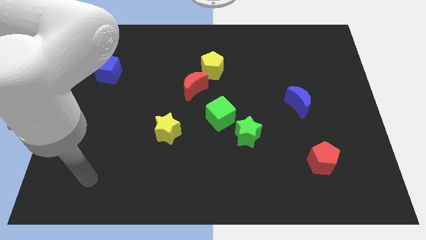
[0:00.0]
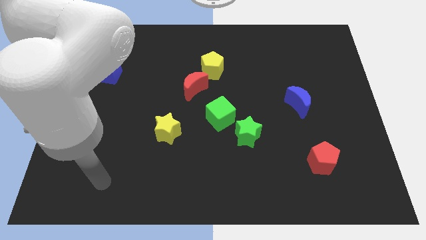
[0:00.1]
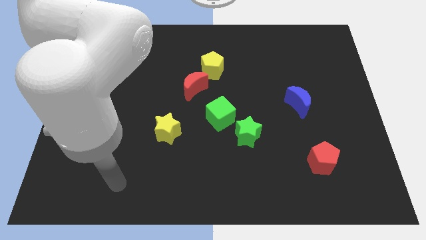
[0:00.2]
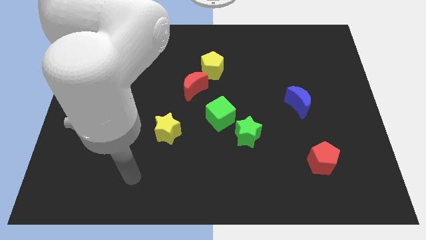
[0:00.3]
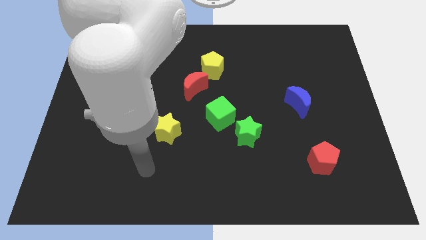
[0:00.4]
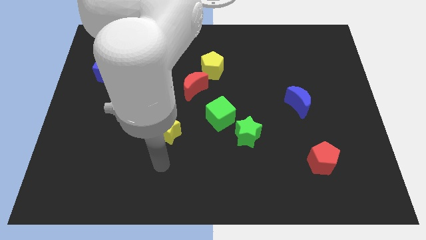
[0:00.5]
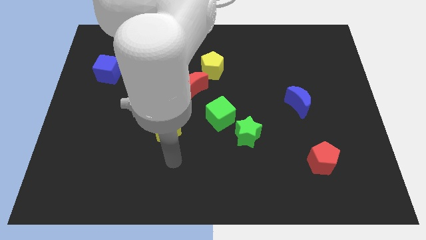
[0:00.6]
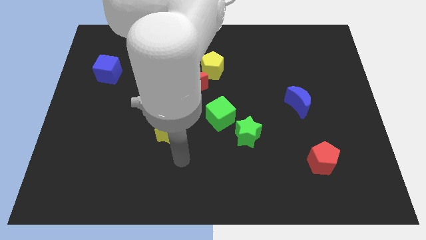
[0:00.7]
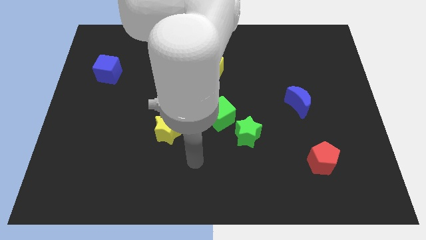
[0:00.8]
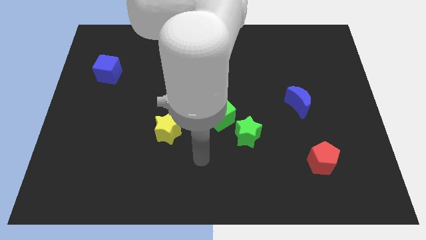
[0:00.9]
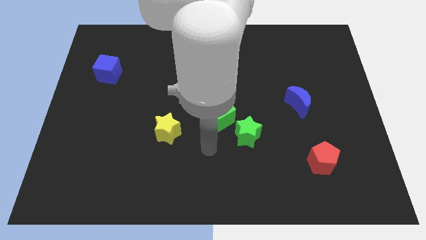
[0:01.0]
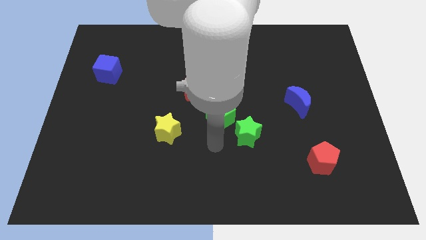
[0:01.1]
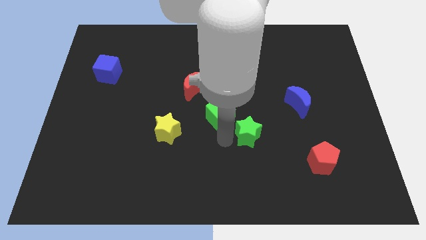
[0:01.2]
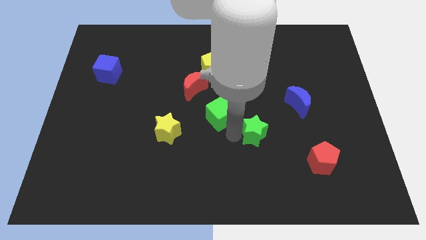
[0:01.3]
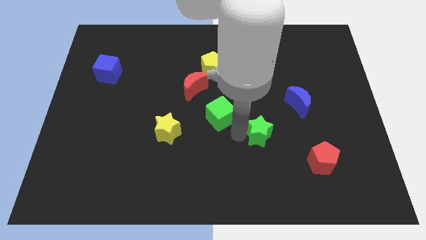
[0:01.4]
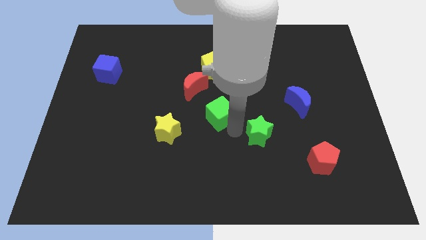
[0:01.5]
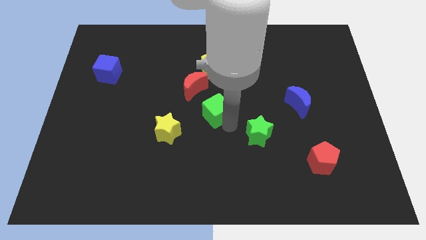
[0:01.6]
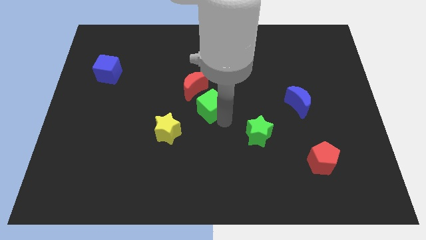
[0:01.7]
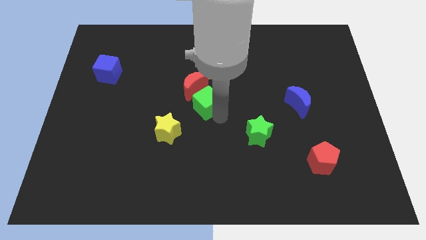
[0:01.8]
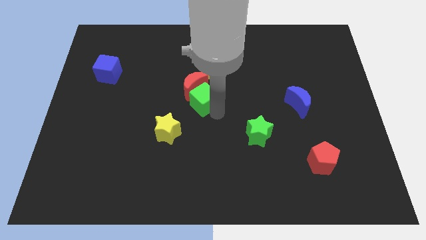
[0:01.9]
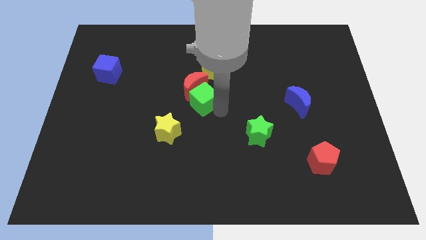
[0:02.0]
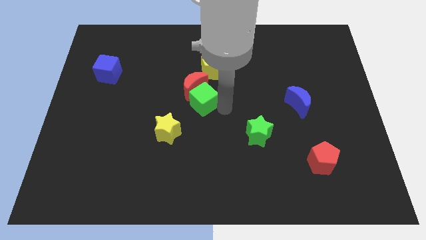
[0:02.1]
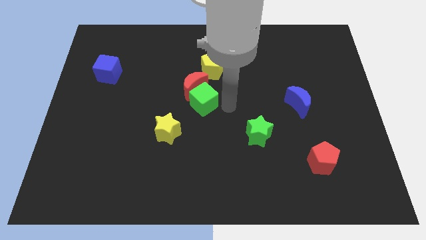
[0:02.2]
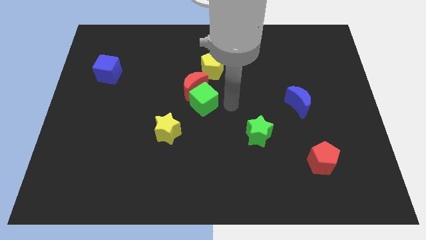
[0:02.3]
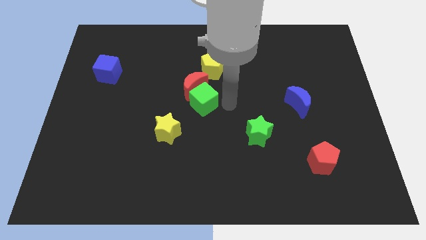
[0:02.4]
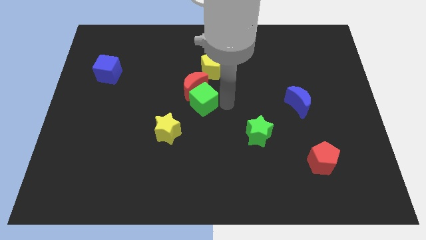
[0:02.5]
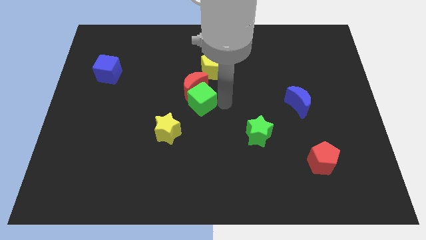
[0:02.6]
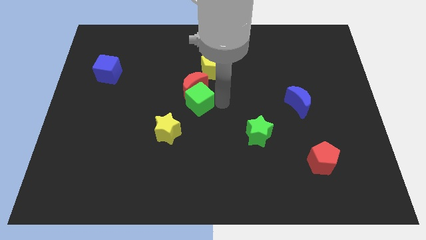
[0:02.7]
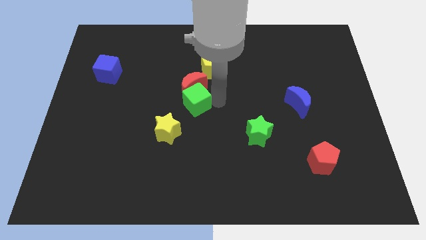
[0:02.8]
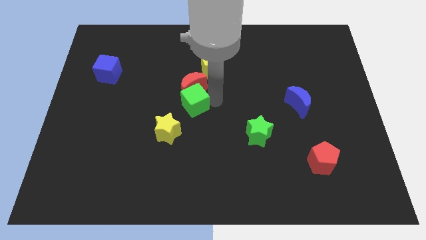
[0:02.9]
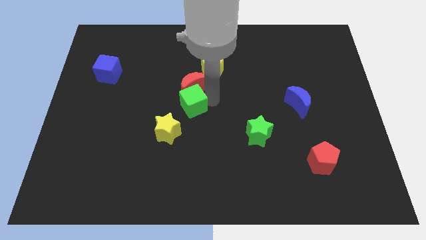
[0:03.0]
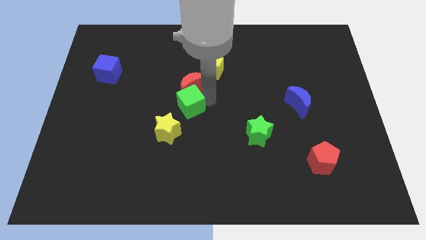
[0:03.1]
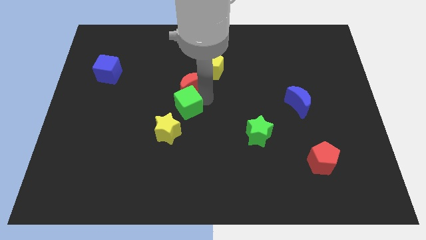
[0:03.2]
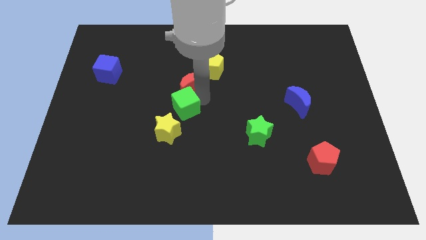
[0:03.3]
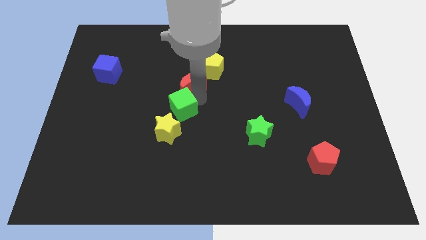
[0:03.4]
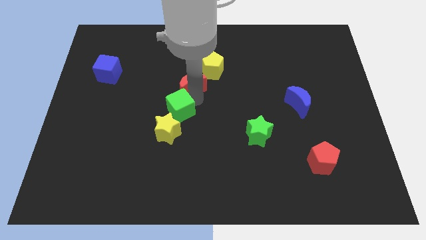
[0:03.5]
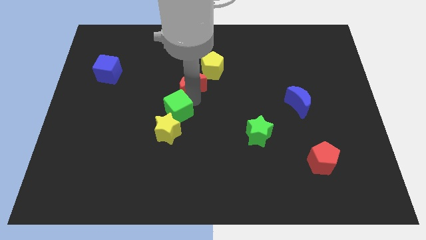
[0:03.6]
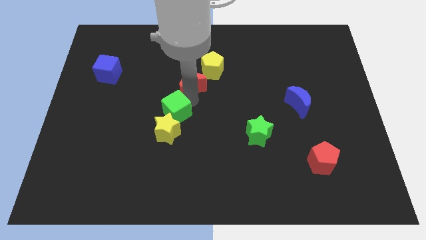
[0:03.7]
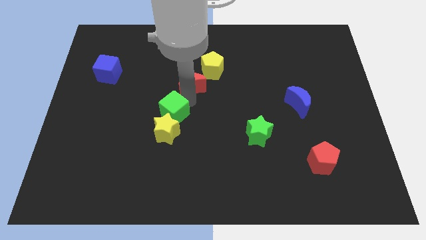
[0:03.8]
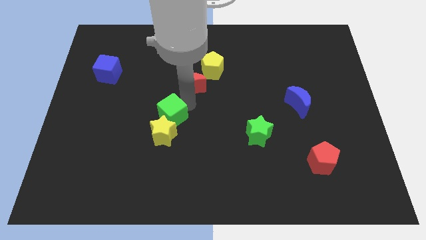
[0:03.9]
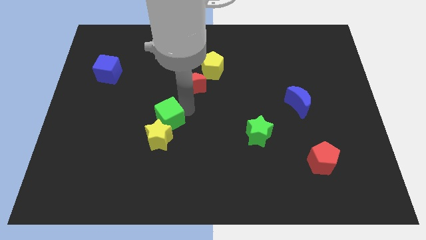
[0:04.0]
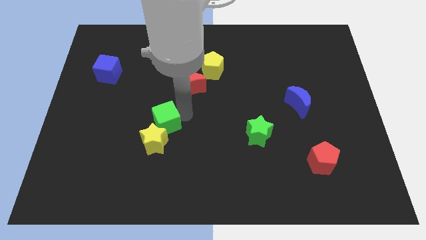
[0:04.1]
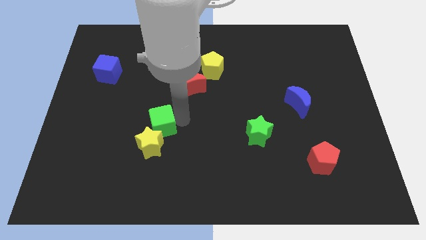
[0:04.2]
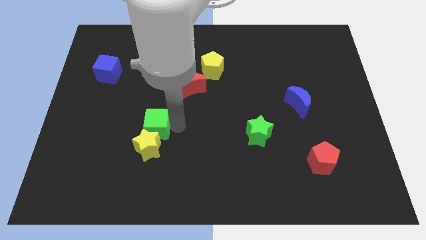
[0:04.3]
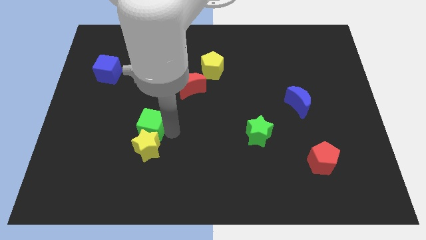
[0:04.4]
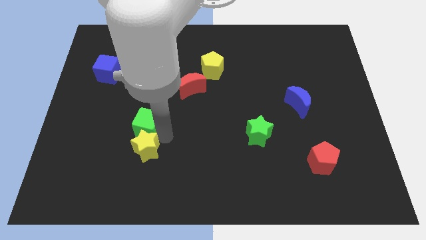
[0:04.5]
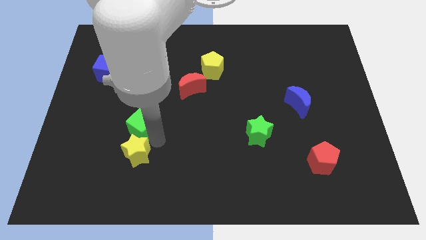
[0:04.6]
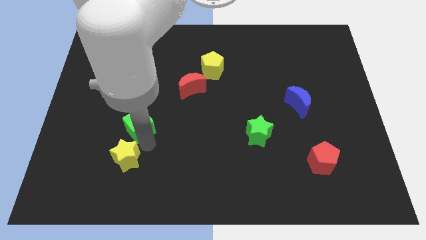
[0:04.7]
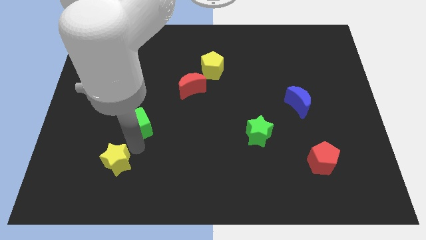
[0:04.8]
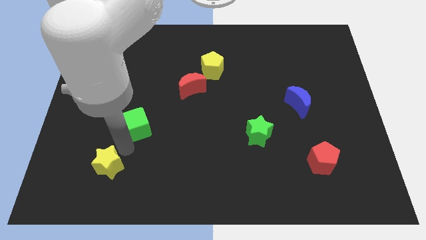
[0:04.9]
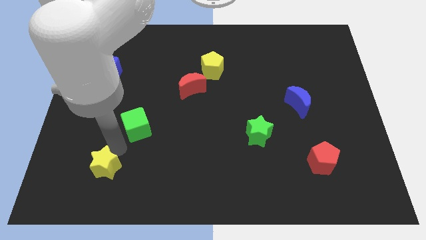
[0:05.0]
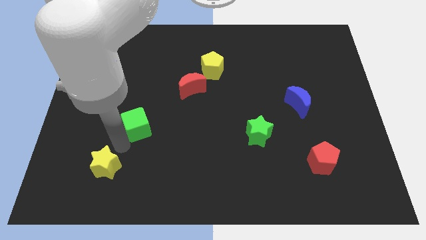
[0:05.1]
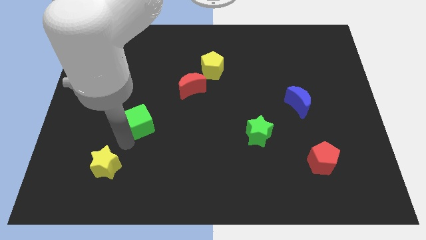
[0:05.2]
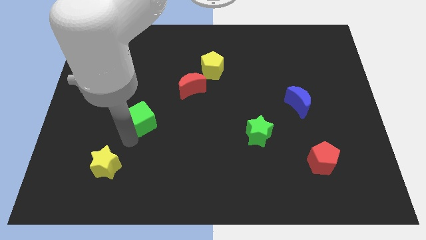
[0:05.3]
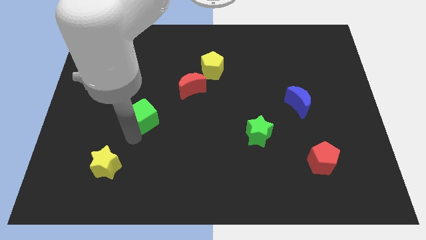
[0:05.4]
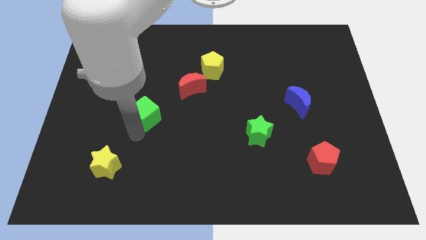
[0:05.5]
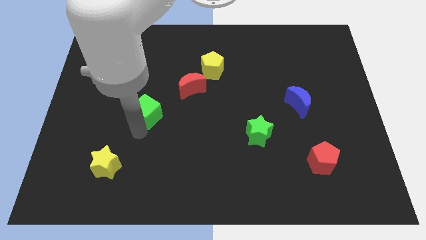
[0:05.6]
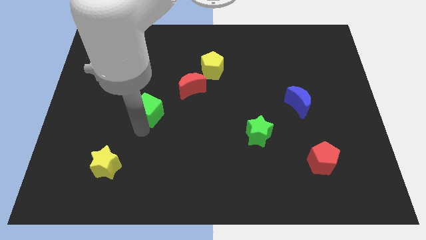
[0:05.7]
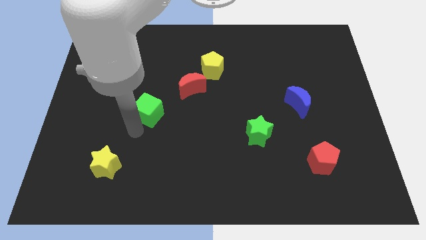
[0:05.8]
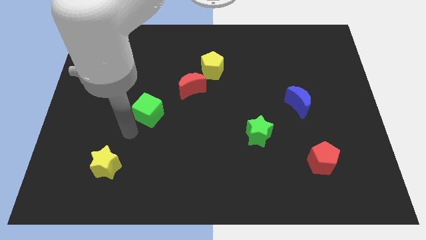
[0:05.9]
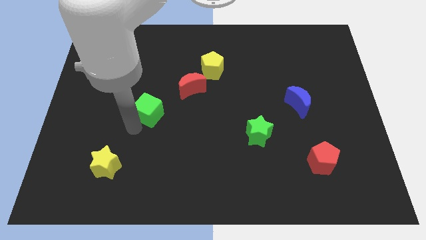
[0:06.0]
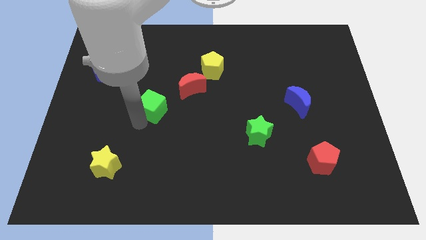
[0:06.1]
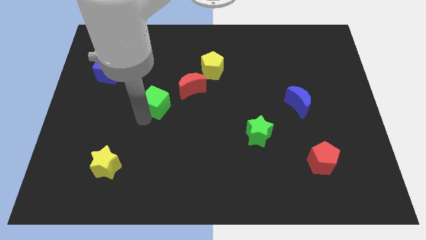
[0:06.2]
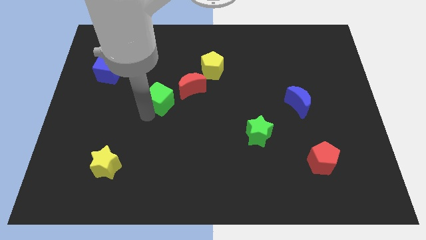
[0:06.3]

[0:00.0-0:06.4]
move the green cube just left of the red moon

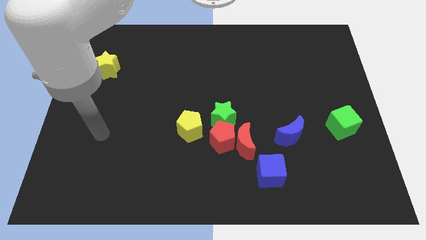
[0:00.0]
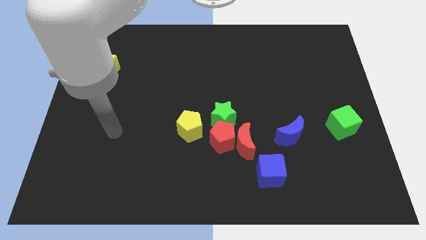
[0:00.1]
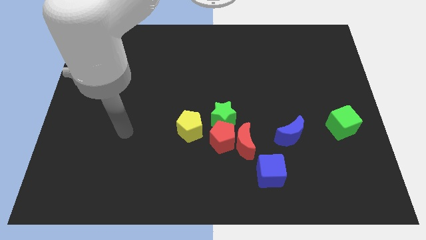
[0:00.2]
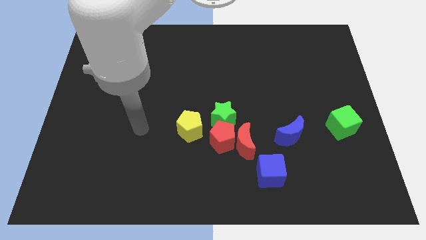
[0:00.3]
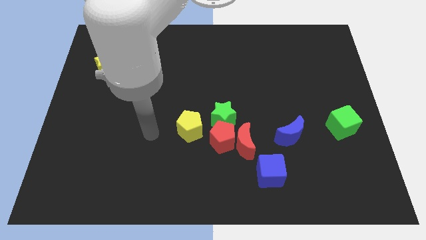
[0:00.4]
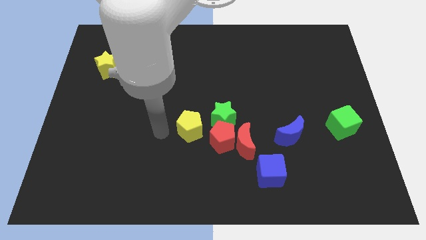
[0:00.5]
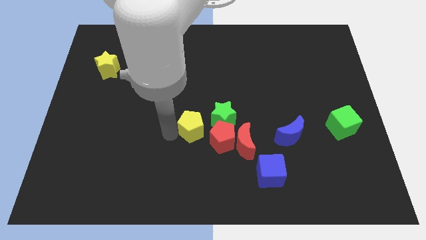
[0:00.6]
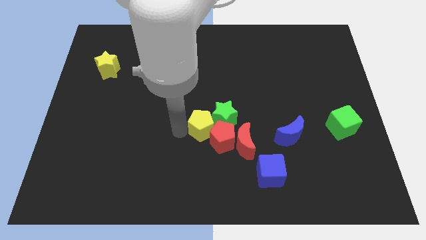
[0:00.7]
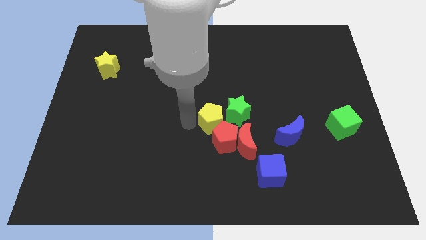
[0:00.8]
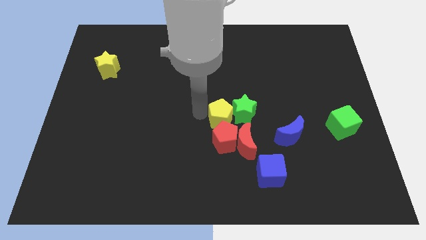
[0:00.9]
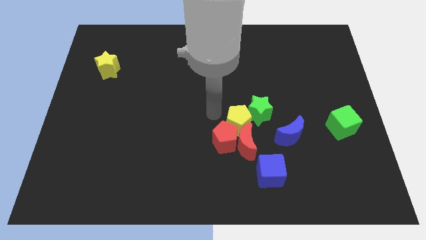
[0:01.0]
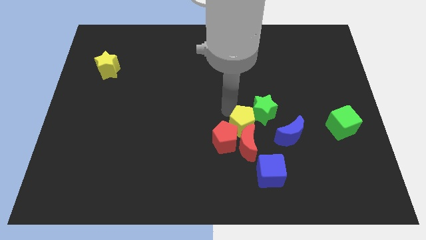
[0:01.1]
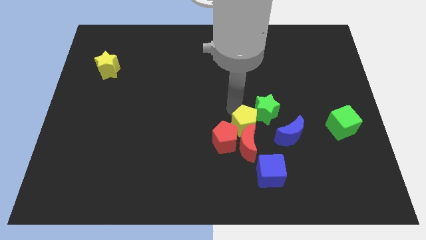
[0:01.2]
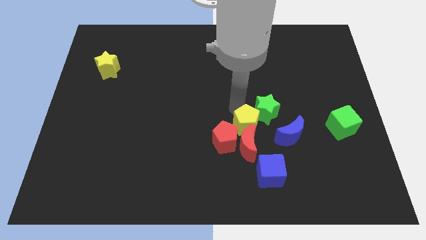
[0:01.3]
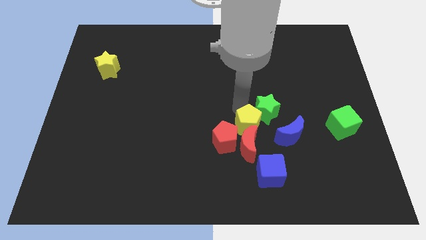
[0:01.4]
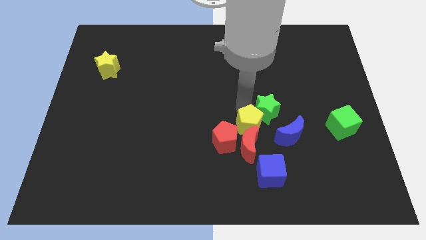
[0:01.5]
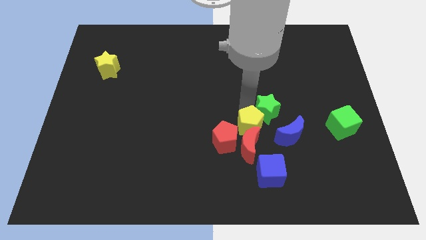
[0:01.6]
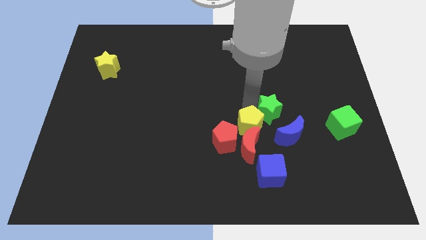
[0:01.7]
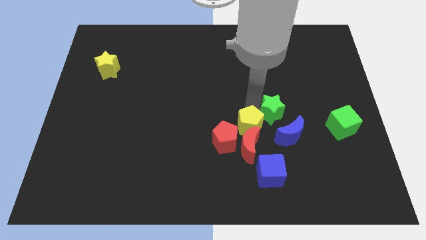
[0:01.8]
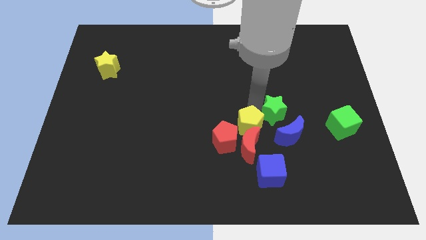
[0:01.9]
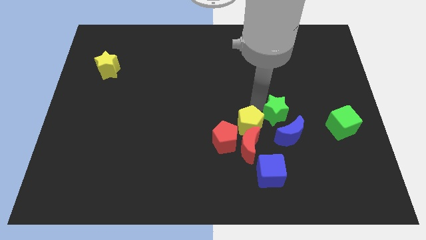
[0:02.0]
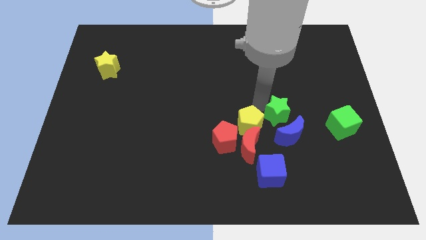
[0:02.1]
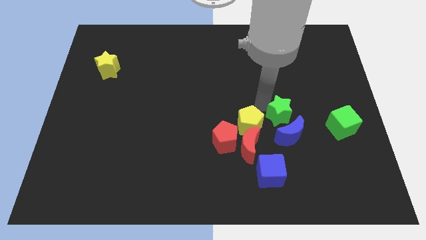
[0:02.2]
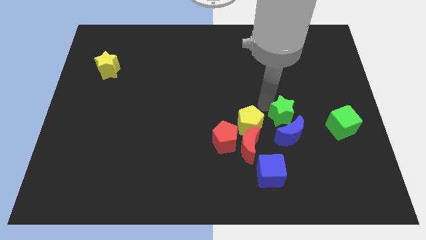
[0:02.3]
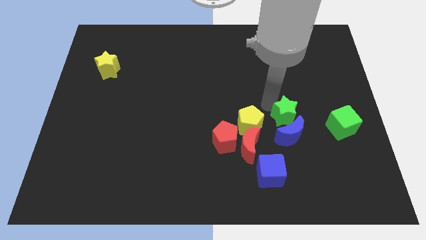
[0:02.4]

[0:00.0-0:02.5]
slide the green star to the top right side of the blue moon
